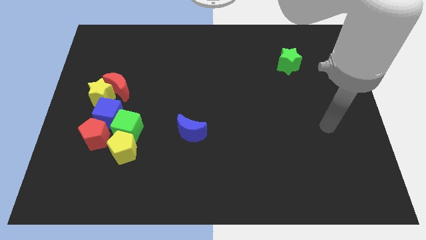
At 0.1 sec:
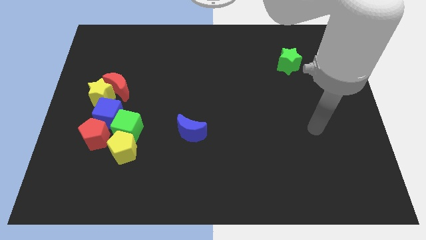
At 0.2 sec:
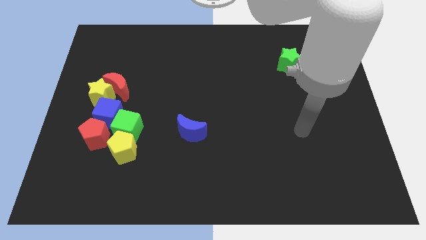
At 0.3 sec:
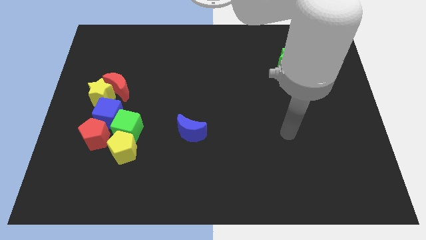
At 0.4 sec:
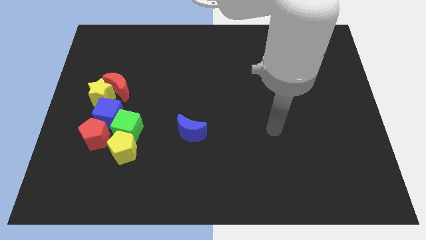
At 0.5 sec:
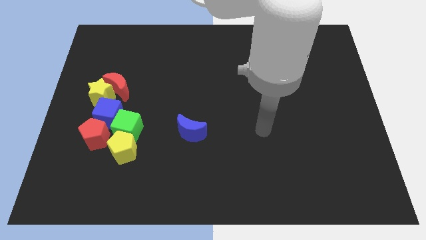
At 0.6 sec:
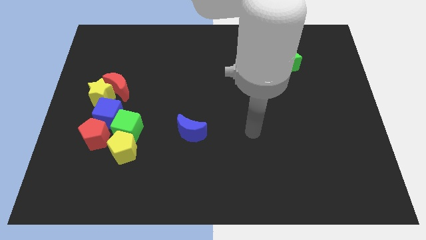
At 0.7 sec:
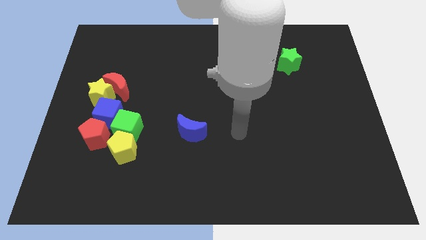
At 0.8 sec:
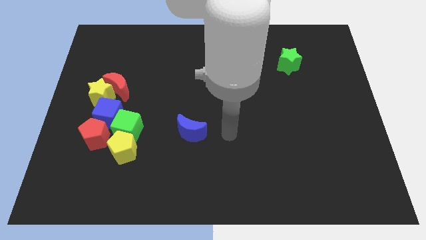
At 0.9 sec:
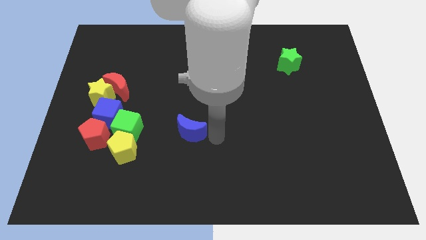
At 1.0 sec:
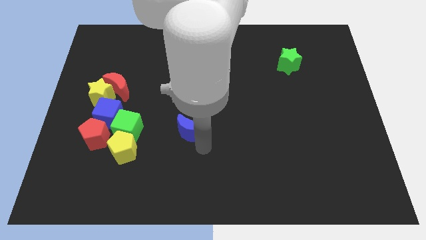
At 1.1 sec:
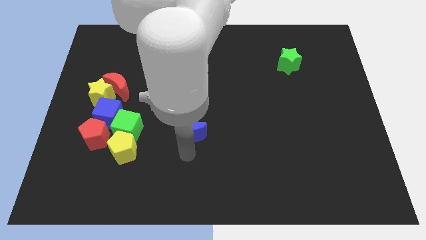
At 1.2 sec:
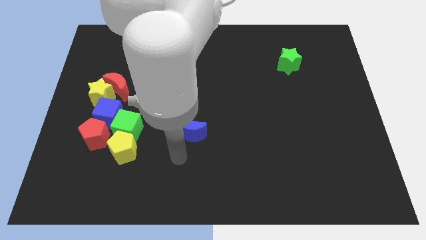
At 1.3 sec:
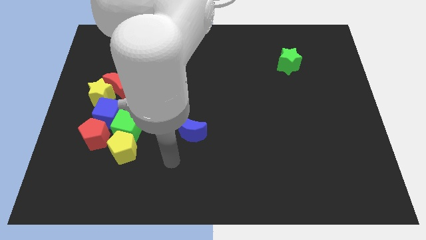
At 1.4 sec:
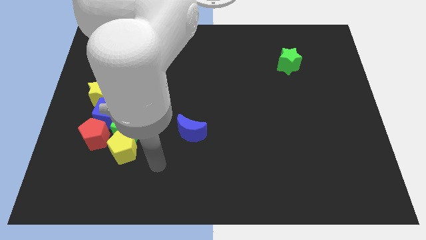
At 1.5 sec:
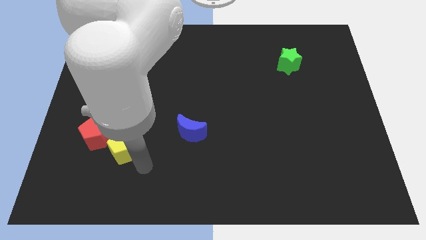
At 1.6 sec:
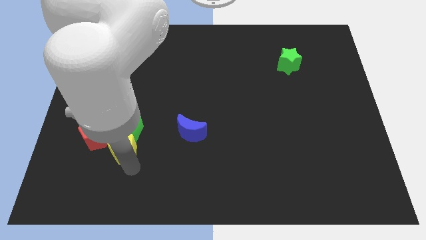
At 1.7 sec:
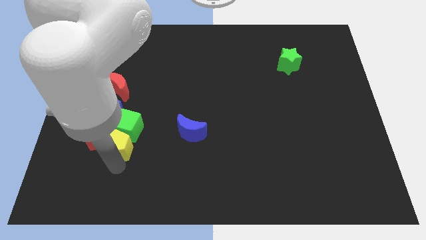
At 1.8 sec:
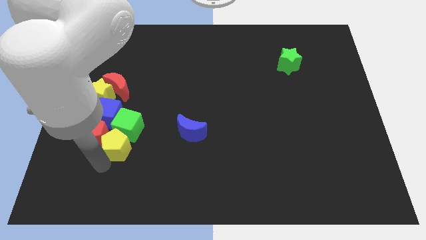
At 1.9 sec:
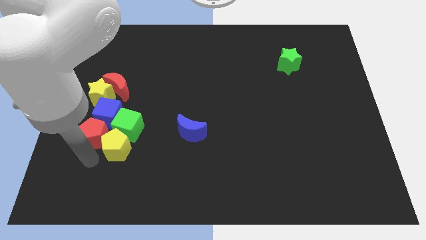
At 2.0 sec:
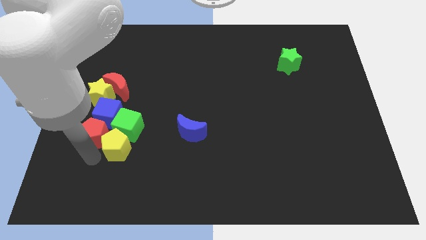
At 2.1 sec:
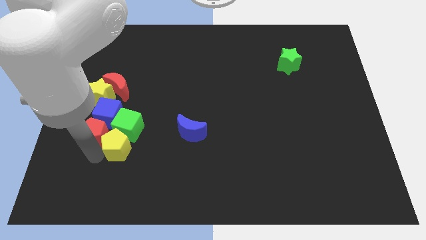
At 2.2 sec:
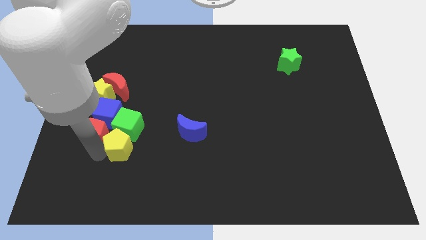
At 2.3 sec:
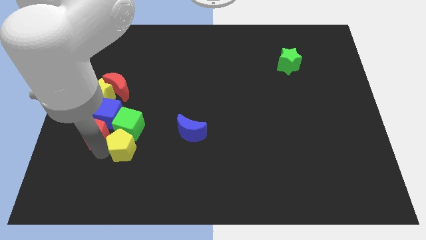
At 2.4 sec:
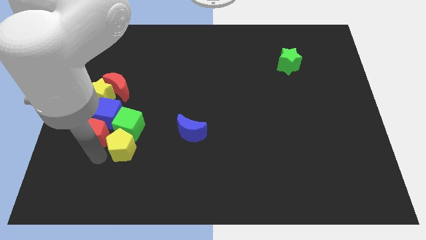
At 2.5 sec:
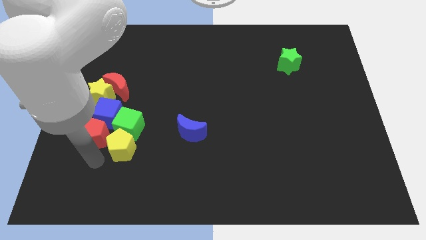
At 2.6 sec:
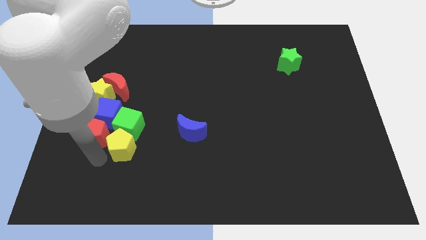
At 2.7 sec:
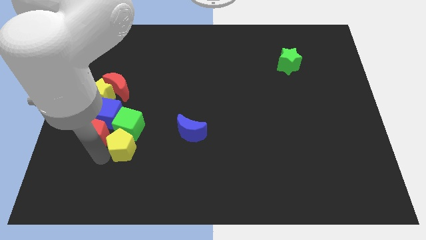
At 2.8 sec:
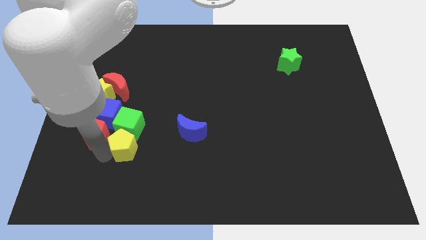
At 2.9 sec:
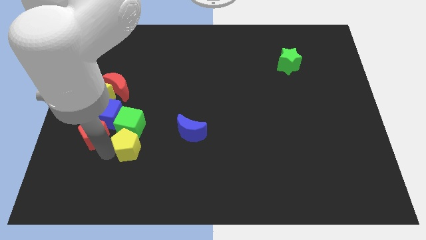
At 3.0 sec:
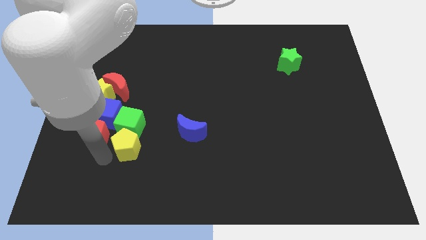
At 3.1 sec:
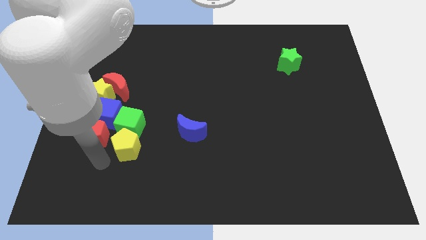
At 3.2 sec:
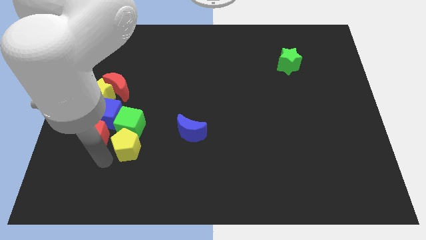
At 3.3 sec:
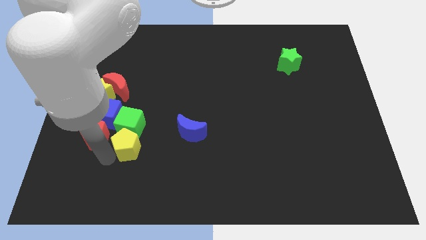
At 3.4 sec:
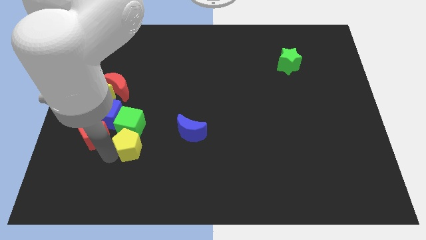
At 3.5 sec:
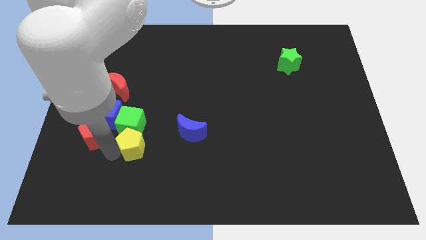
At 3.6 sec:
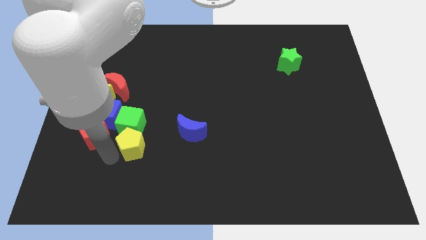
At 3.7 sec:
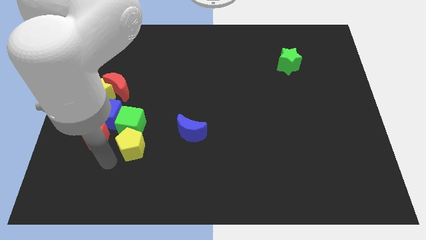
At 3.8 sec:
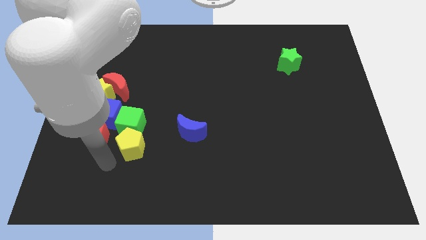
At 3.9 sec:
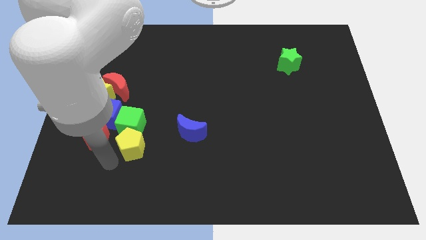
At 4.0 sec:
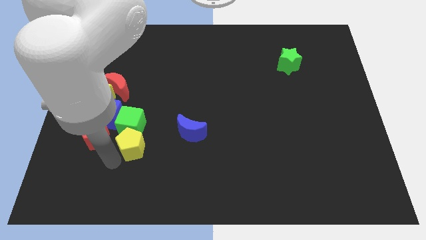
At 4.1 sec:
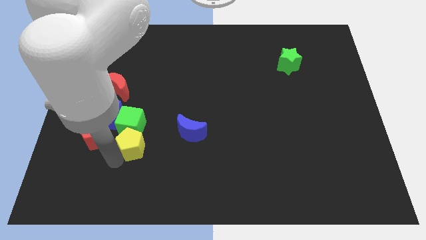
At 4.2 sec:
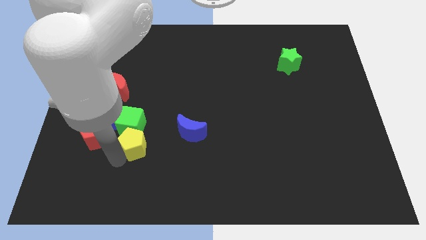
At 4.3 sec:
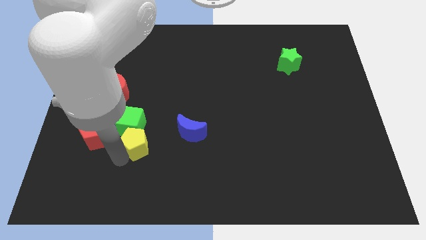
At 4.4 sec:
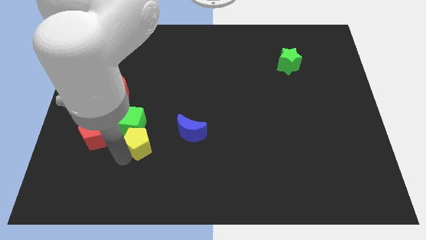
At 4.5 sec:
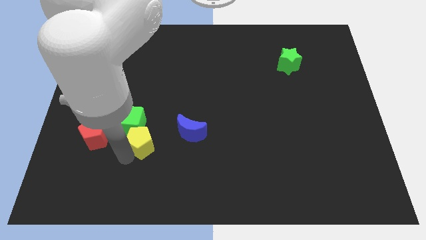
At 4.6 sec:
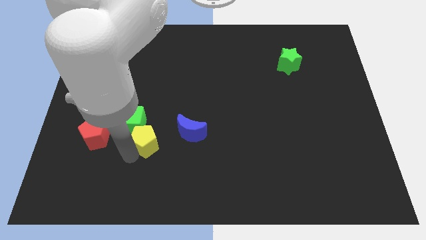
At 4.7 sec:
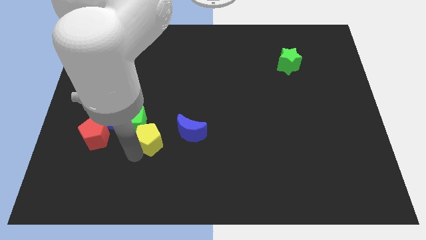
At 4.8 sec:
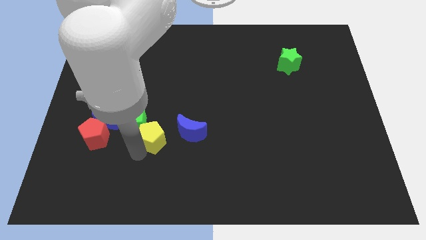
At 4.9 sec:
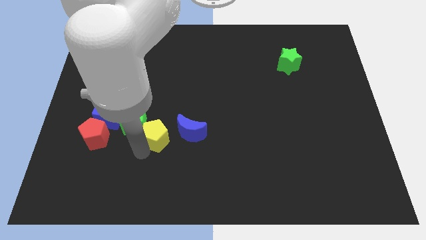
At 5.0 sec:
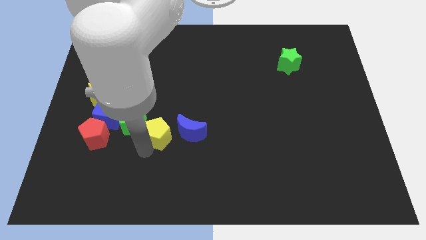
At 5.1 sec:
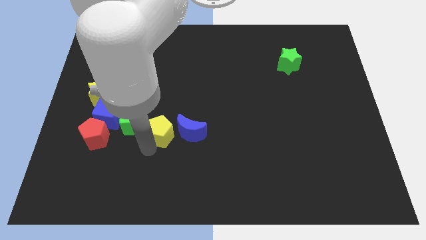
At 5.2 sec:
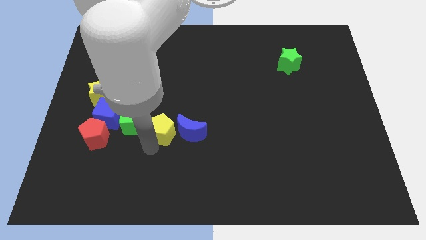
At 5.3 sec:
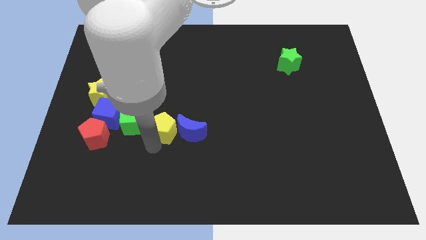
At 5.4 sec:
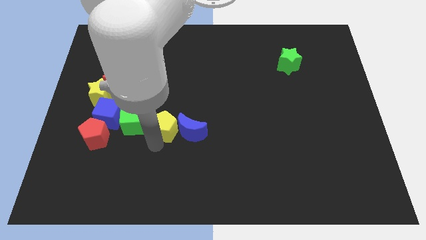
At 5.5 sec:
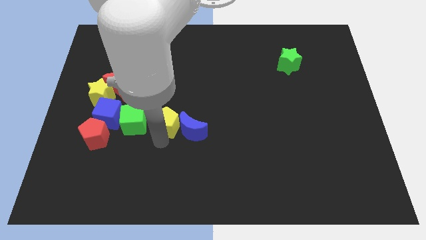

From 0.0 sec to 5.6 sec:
put the yellow pentagon to the middle

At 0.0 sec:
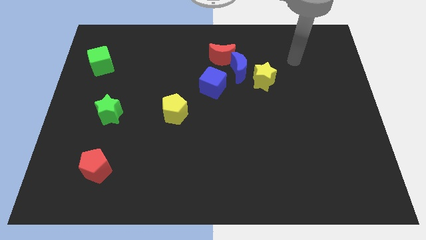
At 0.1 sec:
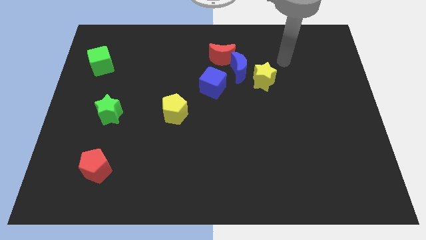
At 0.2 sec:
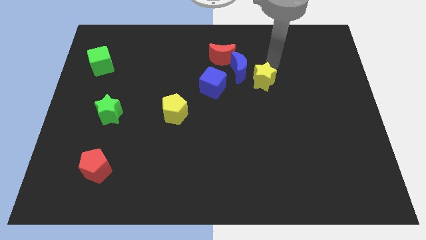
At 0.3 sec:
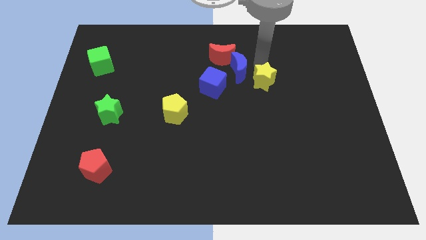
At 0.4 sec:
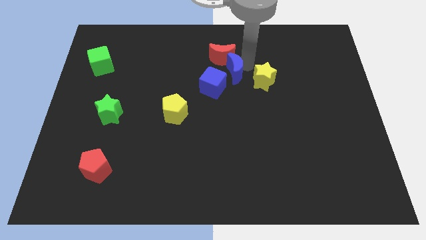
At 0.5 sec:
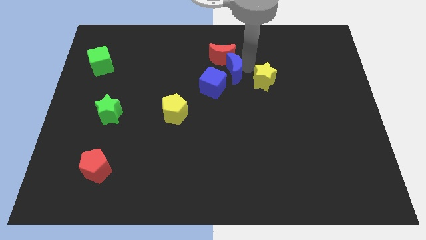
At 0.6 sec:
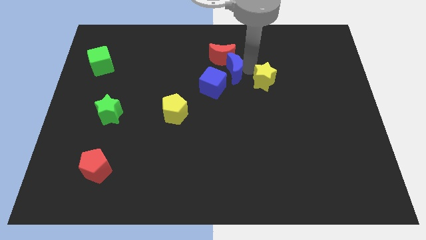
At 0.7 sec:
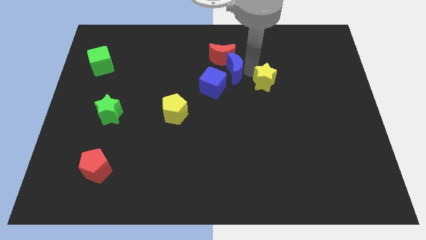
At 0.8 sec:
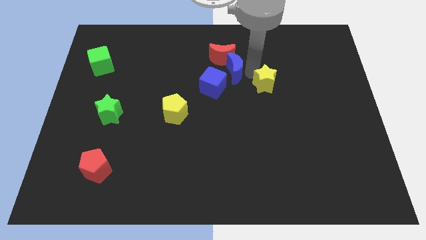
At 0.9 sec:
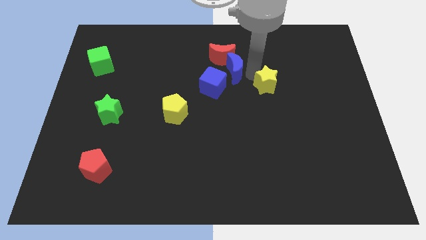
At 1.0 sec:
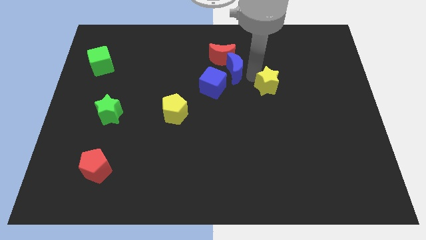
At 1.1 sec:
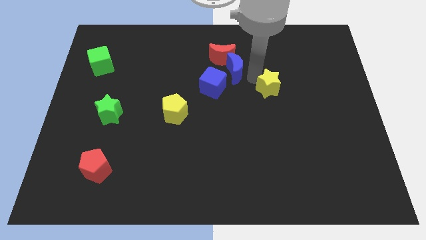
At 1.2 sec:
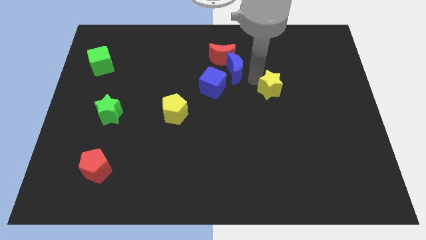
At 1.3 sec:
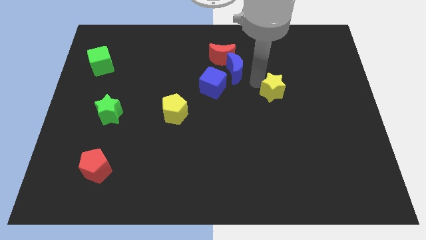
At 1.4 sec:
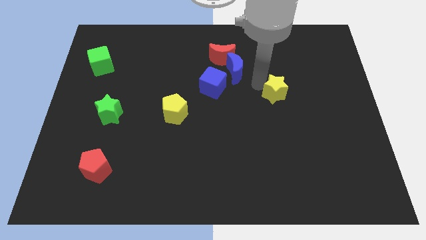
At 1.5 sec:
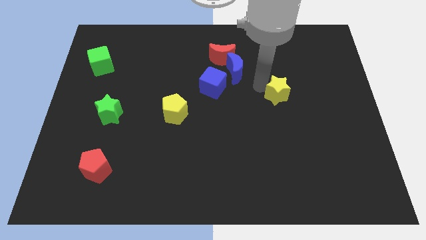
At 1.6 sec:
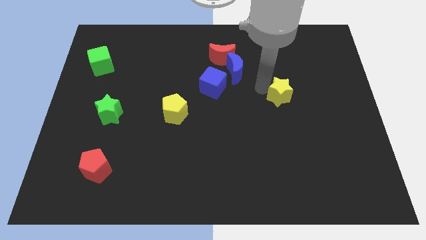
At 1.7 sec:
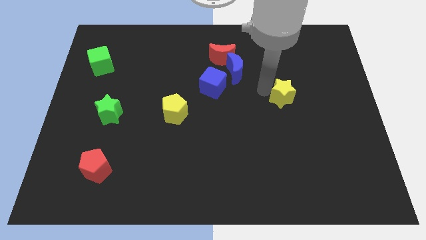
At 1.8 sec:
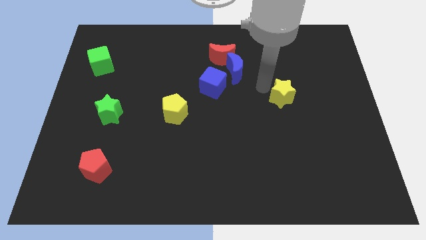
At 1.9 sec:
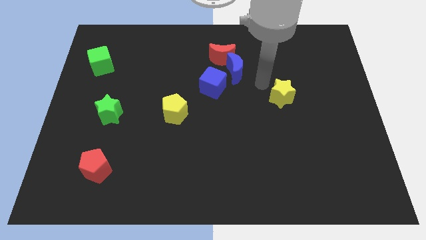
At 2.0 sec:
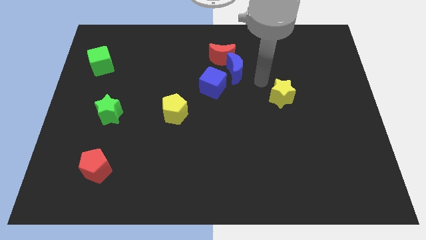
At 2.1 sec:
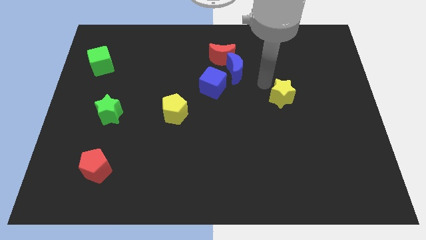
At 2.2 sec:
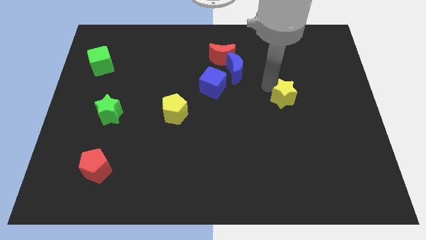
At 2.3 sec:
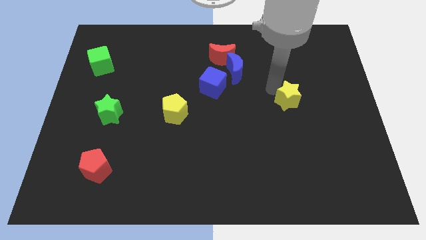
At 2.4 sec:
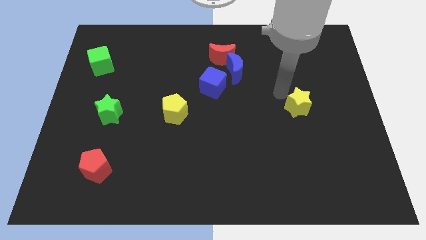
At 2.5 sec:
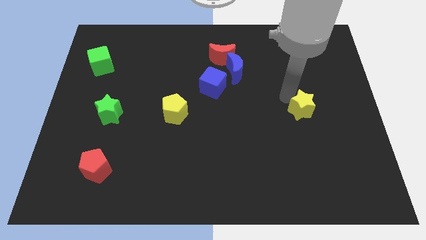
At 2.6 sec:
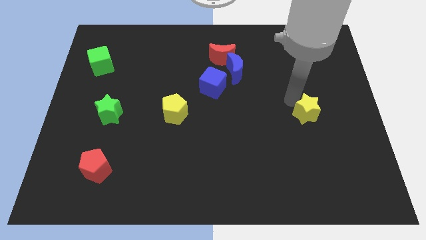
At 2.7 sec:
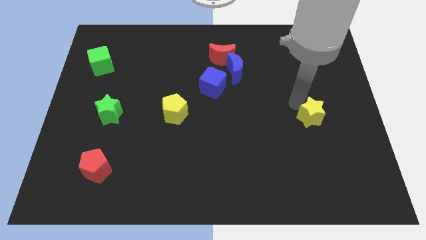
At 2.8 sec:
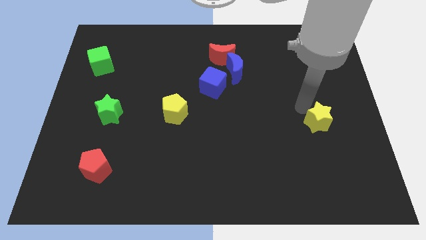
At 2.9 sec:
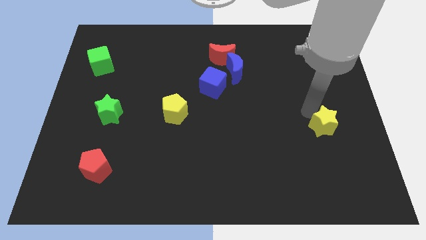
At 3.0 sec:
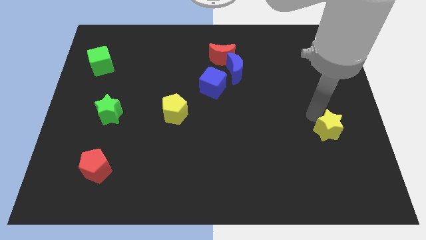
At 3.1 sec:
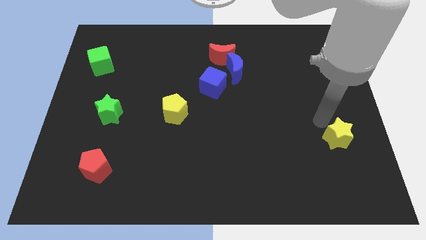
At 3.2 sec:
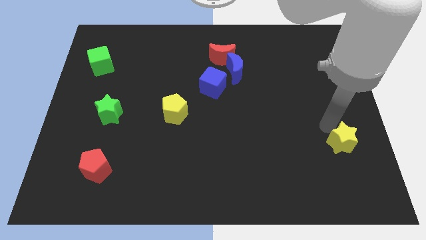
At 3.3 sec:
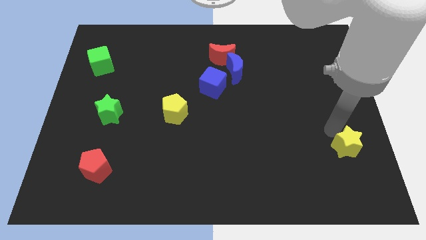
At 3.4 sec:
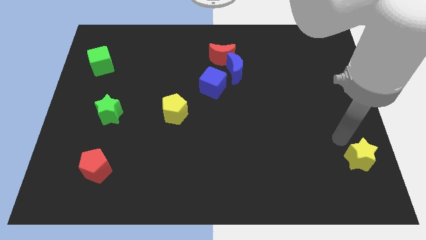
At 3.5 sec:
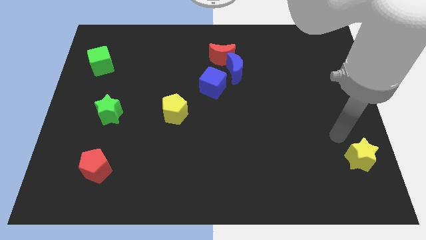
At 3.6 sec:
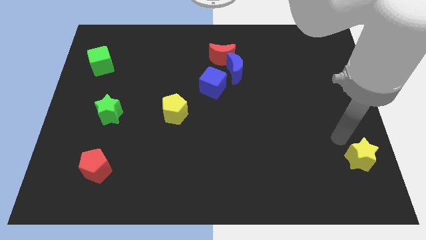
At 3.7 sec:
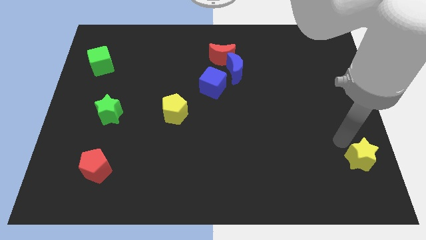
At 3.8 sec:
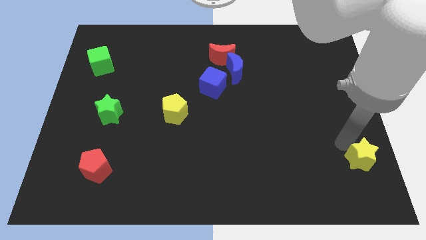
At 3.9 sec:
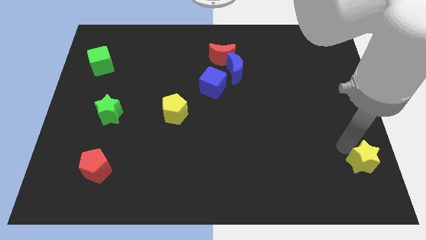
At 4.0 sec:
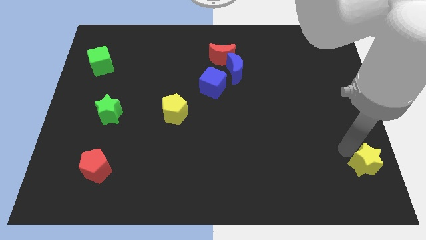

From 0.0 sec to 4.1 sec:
move the yellow star to the lower right corner
